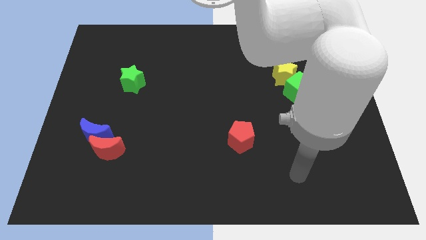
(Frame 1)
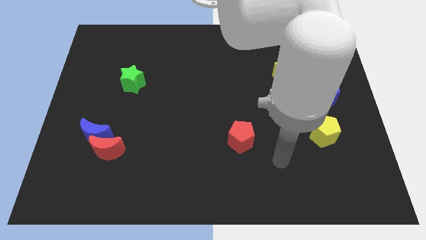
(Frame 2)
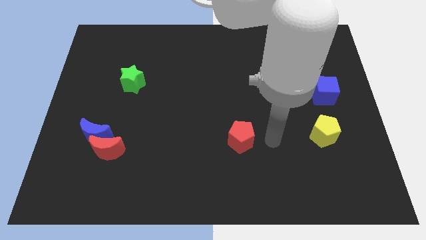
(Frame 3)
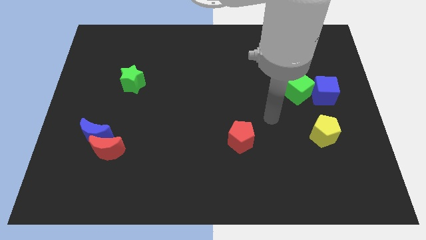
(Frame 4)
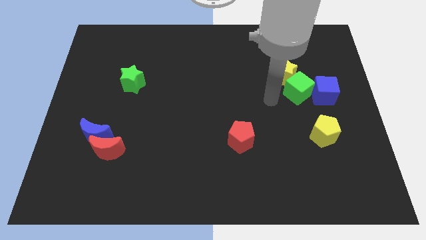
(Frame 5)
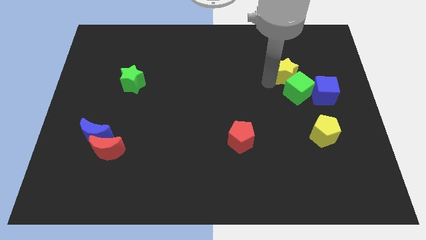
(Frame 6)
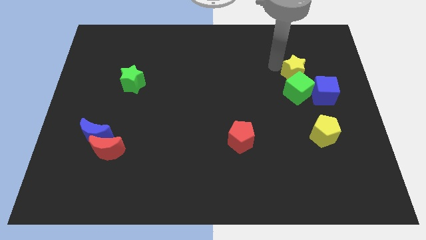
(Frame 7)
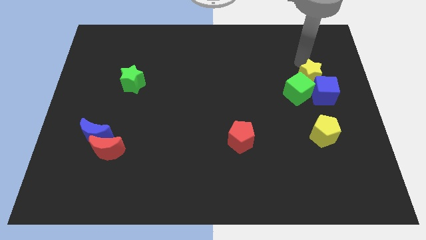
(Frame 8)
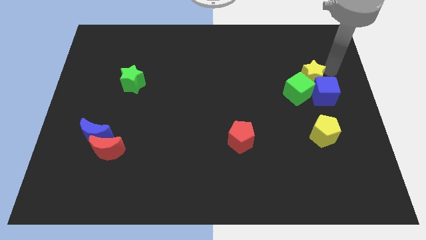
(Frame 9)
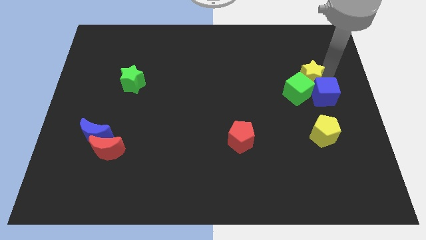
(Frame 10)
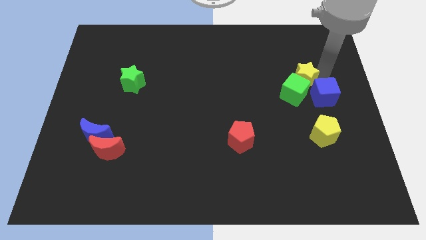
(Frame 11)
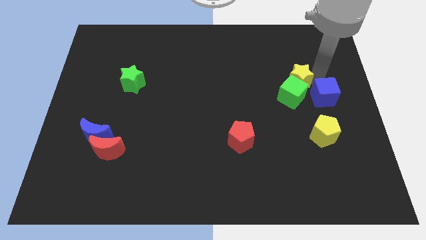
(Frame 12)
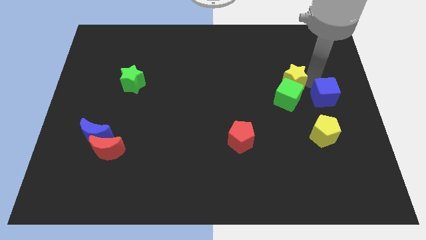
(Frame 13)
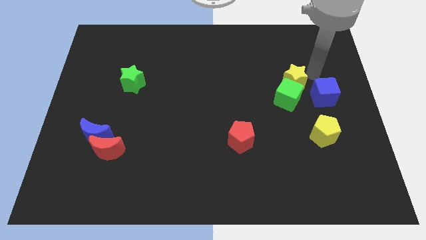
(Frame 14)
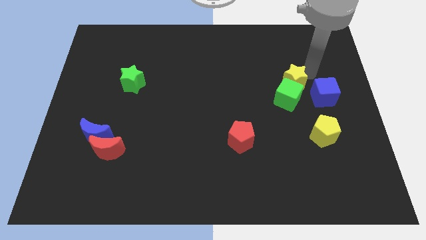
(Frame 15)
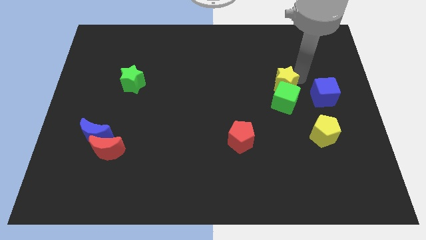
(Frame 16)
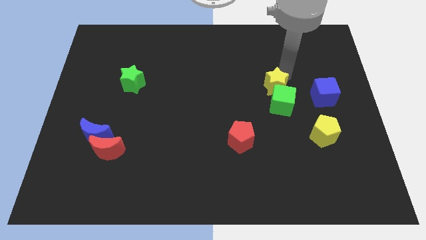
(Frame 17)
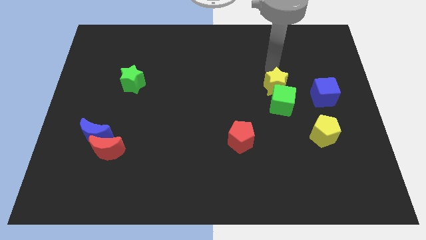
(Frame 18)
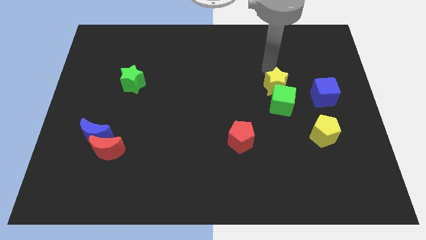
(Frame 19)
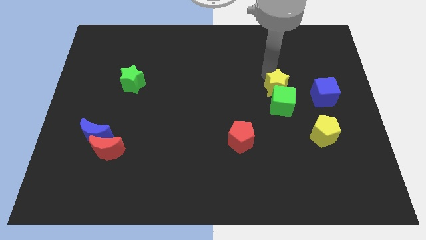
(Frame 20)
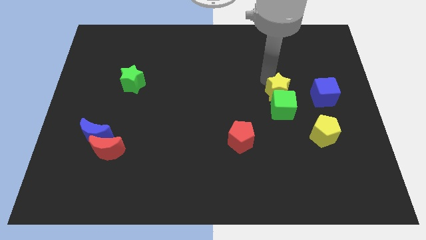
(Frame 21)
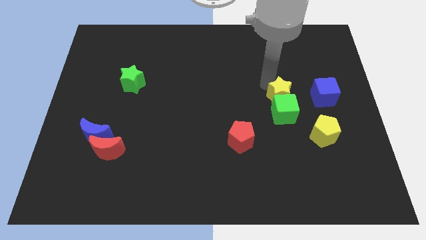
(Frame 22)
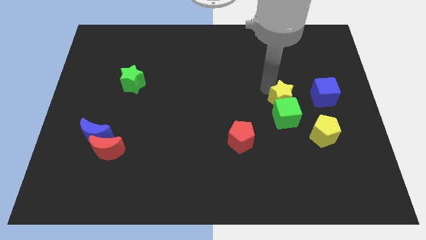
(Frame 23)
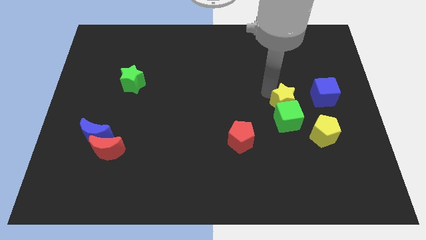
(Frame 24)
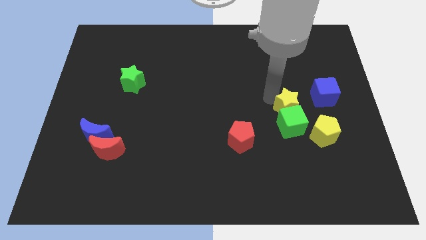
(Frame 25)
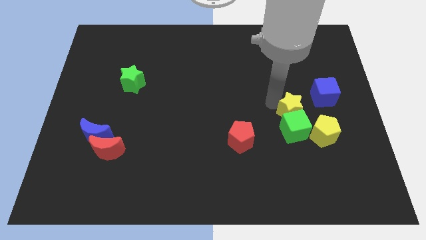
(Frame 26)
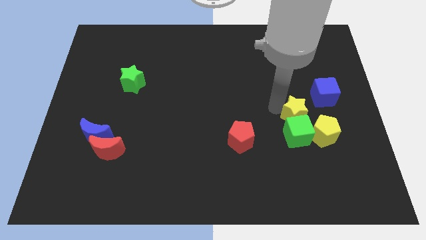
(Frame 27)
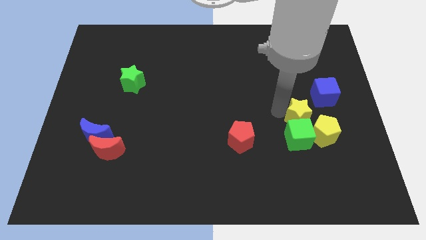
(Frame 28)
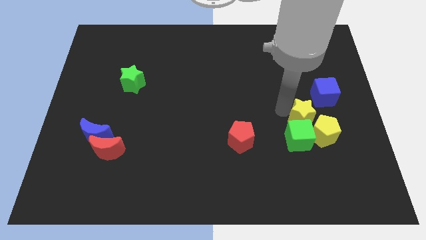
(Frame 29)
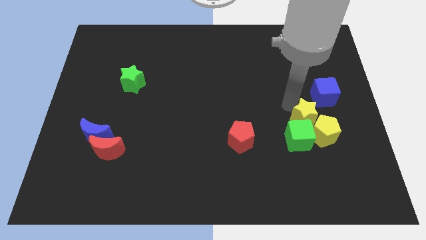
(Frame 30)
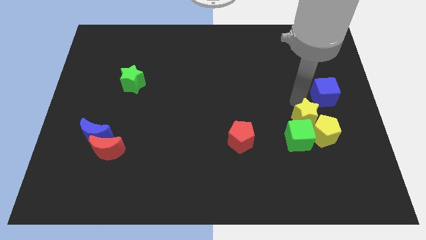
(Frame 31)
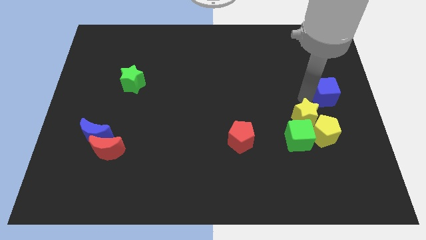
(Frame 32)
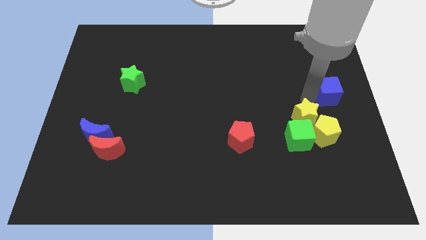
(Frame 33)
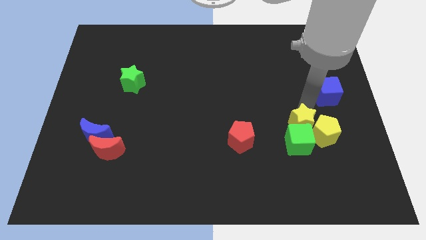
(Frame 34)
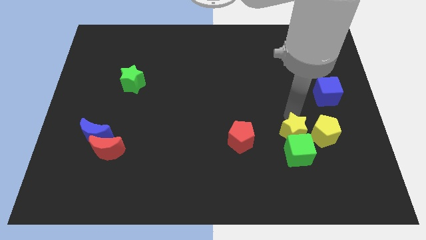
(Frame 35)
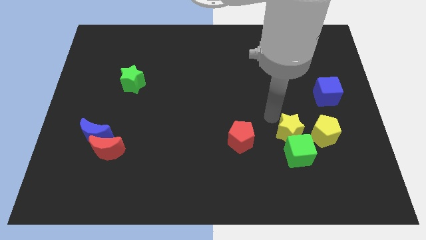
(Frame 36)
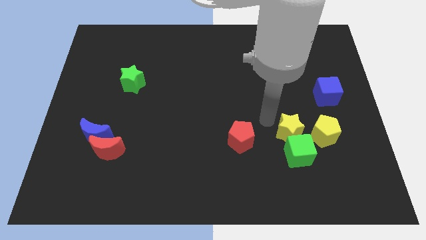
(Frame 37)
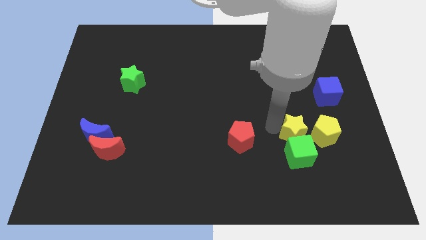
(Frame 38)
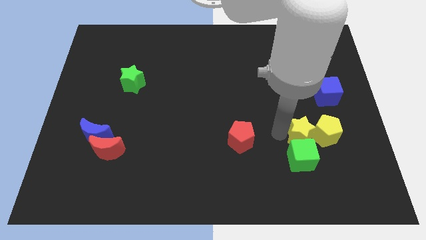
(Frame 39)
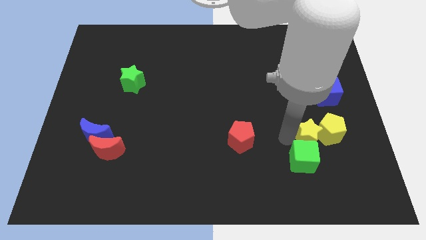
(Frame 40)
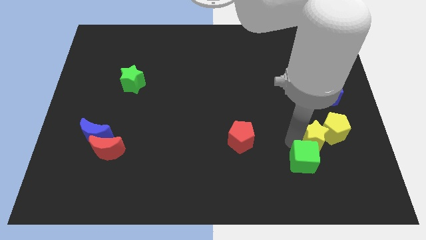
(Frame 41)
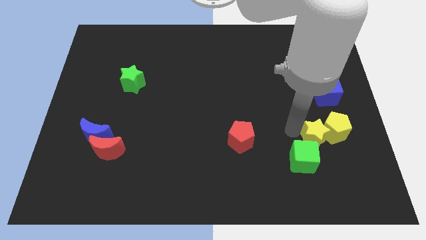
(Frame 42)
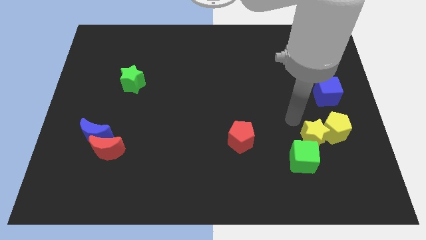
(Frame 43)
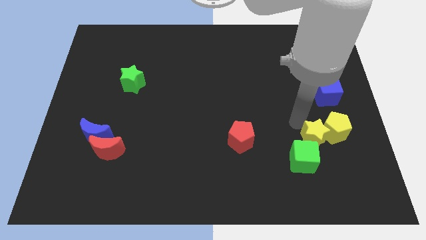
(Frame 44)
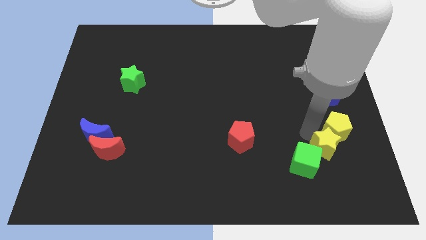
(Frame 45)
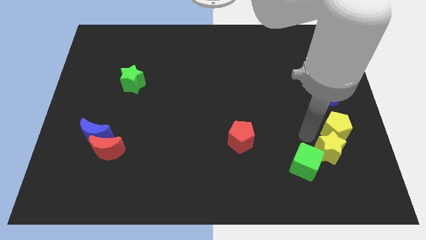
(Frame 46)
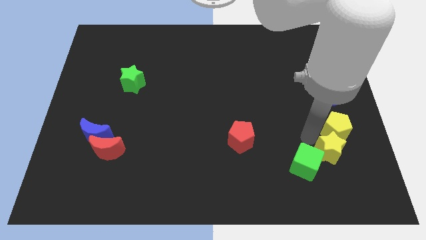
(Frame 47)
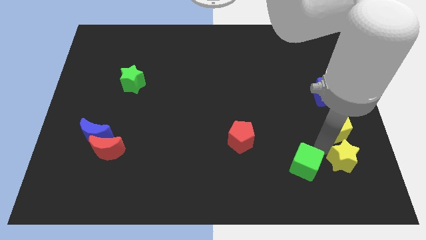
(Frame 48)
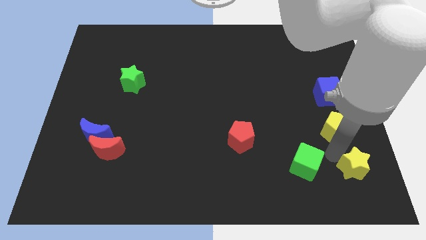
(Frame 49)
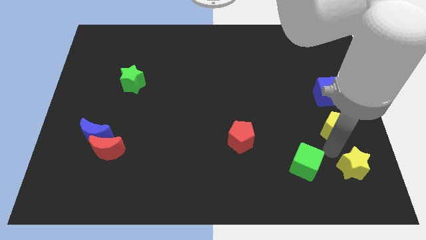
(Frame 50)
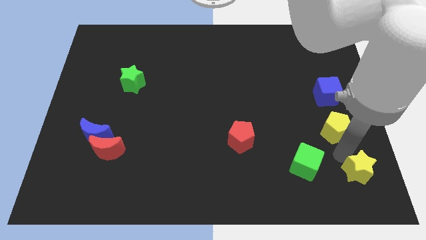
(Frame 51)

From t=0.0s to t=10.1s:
move the yellow star to the bottom right

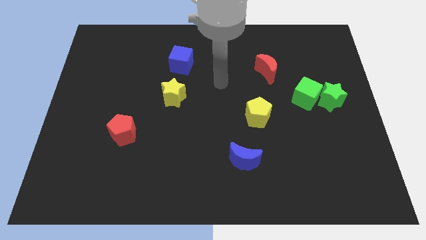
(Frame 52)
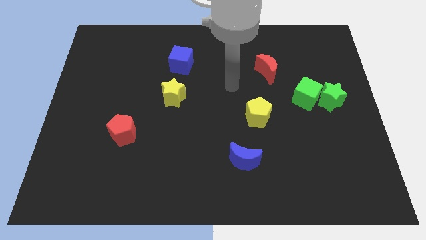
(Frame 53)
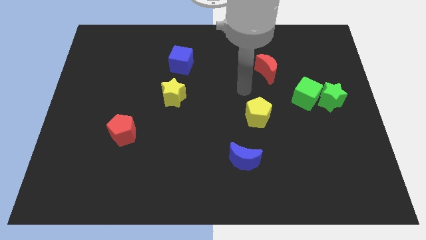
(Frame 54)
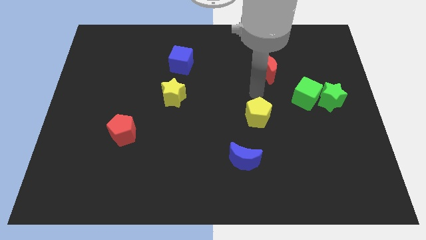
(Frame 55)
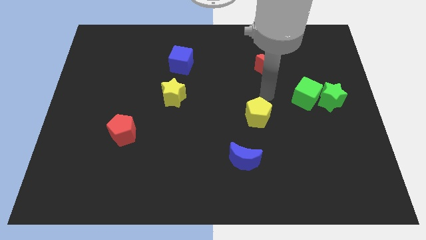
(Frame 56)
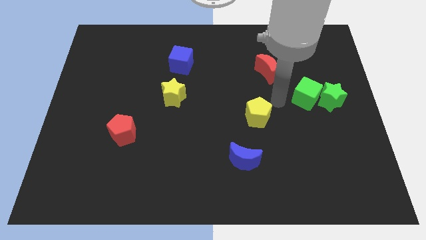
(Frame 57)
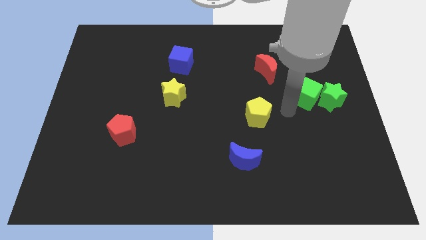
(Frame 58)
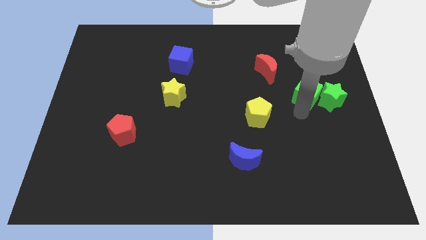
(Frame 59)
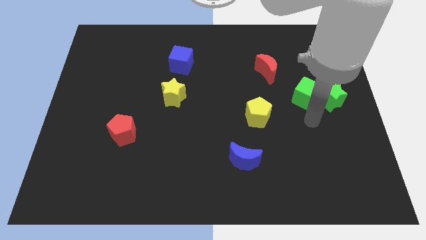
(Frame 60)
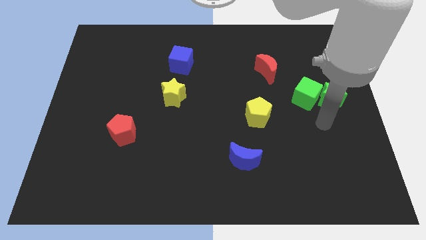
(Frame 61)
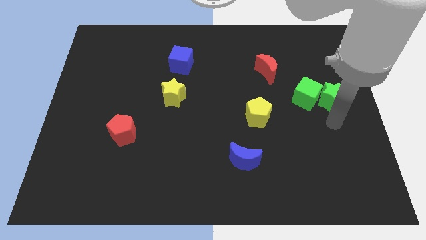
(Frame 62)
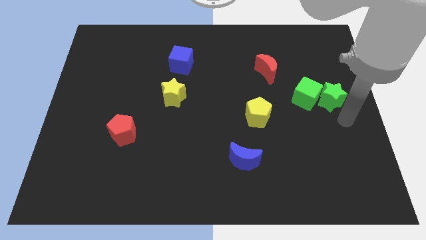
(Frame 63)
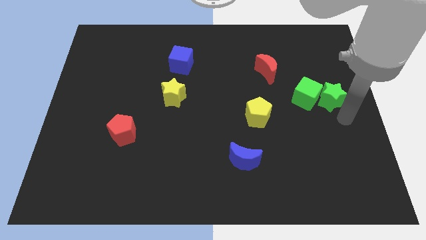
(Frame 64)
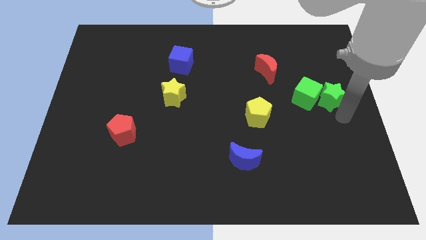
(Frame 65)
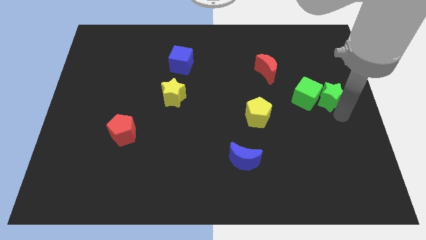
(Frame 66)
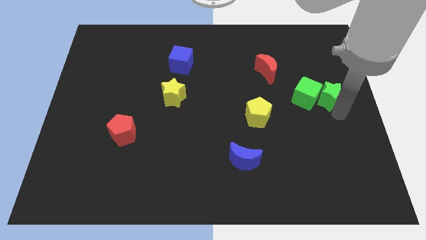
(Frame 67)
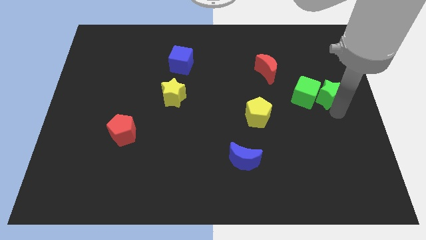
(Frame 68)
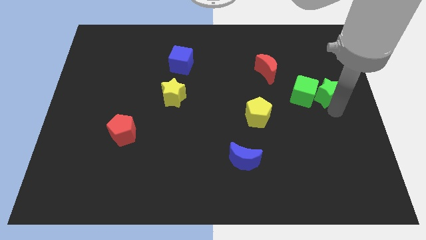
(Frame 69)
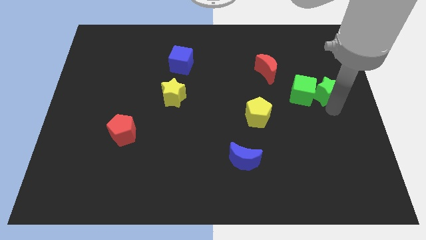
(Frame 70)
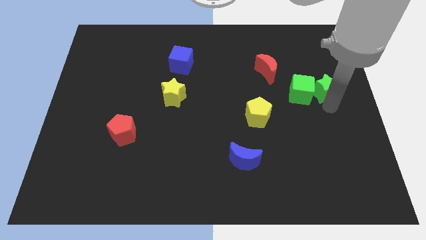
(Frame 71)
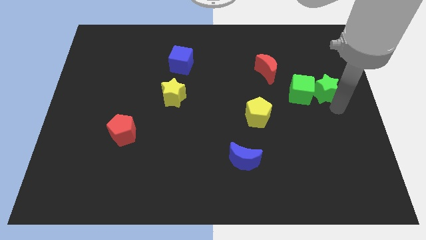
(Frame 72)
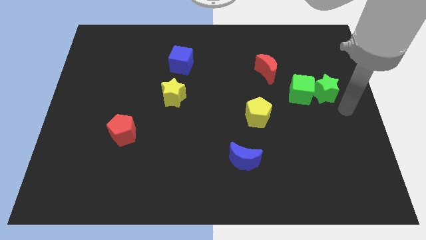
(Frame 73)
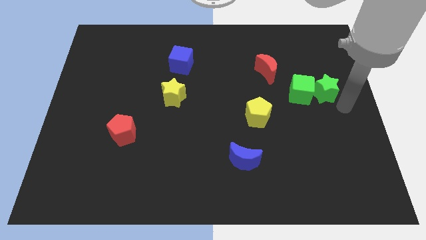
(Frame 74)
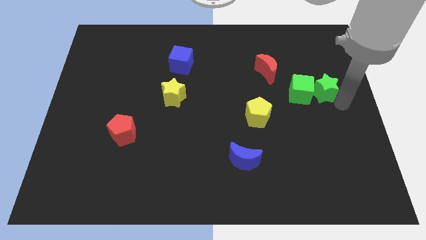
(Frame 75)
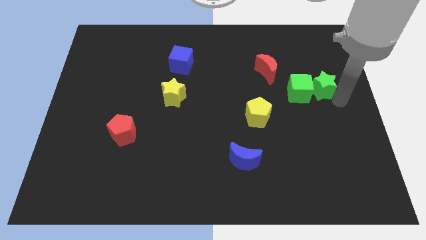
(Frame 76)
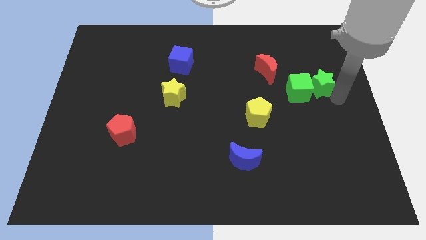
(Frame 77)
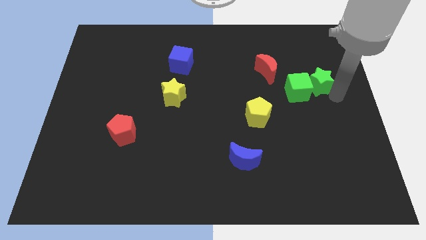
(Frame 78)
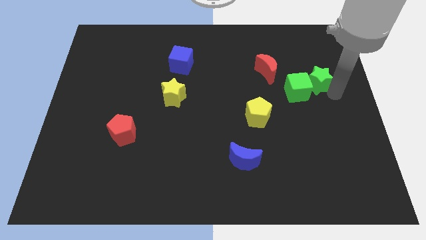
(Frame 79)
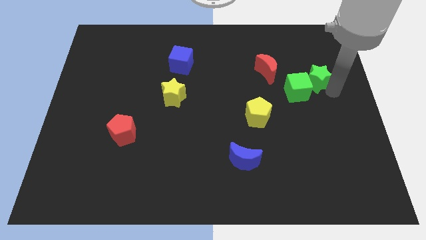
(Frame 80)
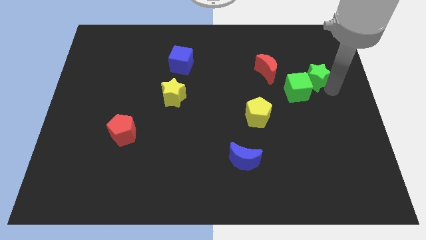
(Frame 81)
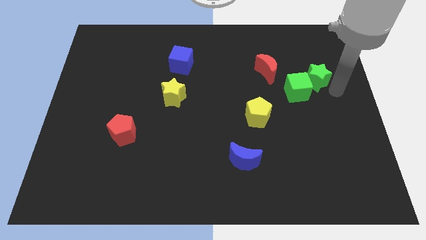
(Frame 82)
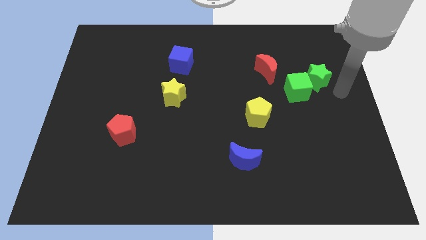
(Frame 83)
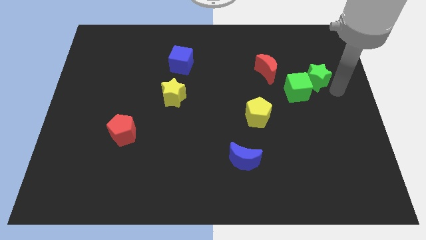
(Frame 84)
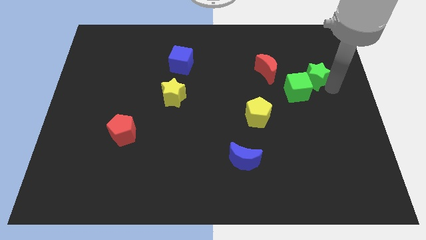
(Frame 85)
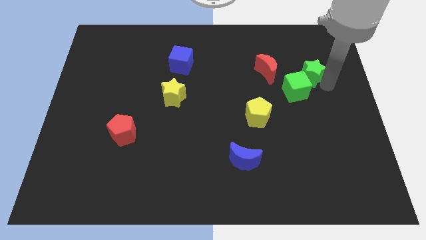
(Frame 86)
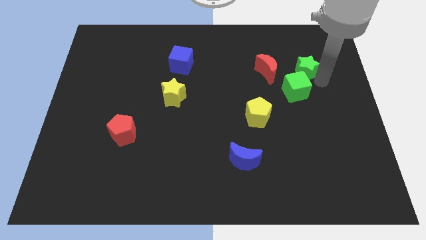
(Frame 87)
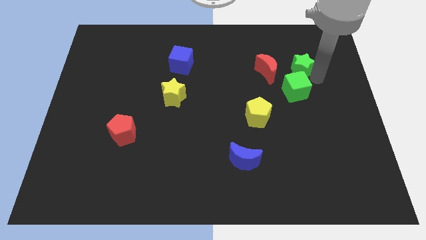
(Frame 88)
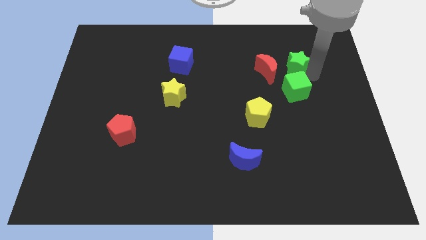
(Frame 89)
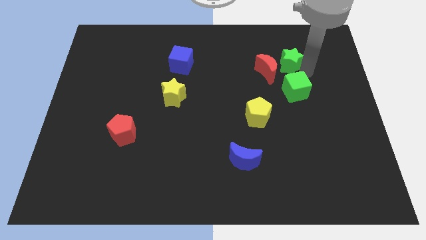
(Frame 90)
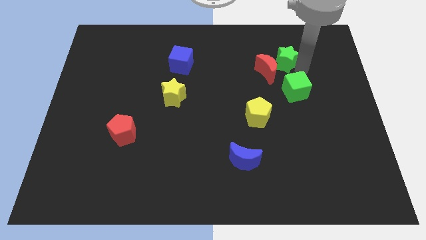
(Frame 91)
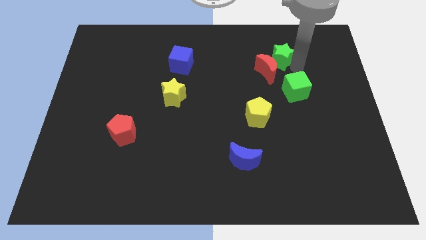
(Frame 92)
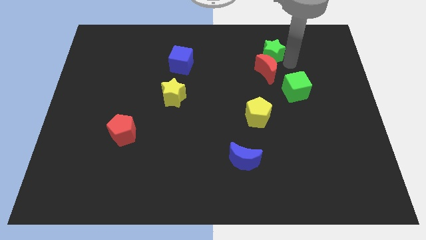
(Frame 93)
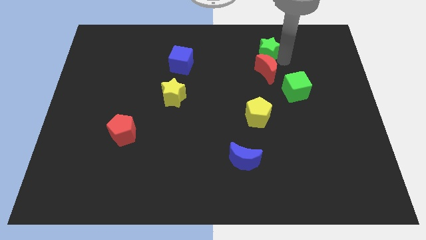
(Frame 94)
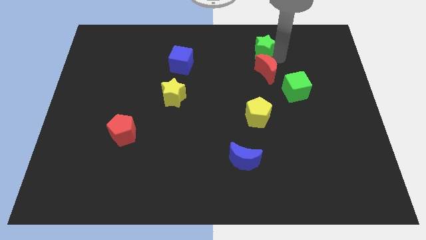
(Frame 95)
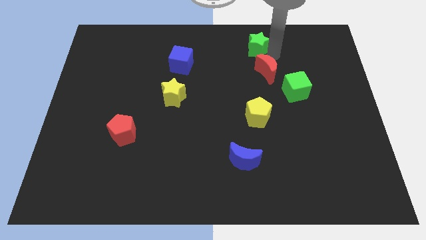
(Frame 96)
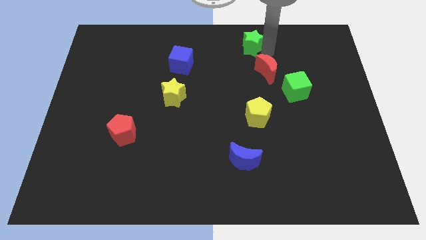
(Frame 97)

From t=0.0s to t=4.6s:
slide the green star to the top
